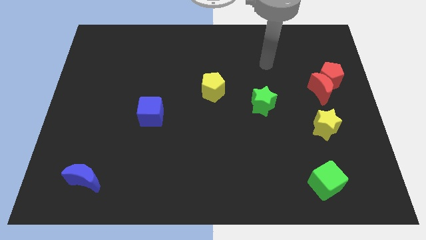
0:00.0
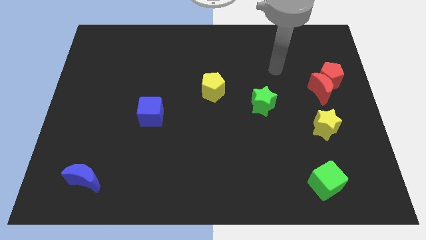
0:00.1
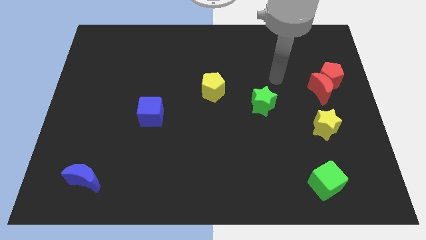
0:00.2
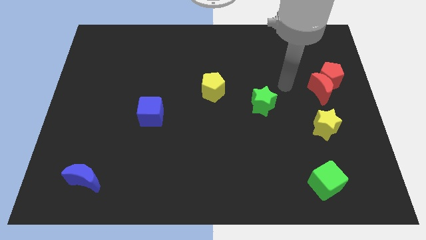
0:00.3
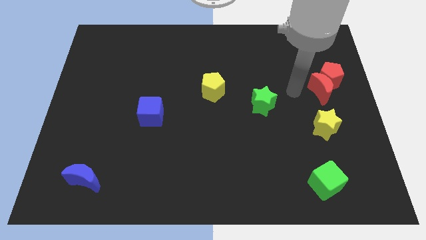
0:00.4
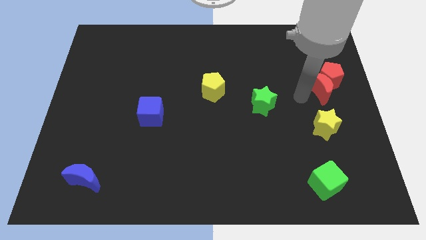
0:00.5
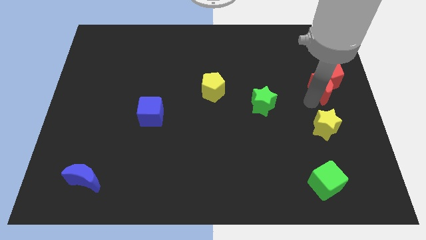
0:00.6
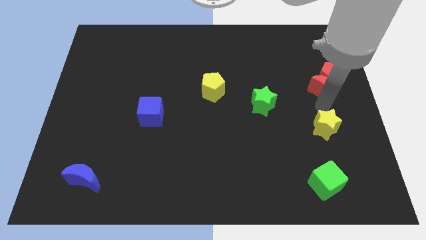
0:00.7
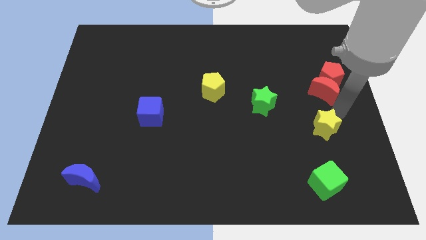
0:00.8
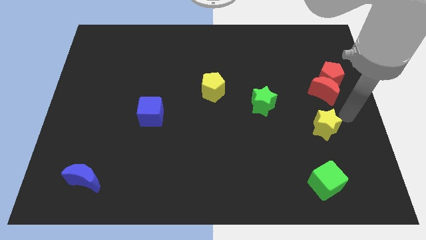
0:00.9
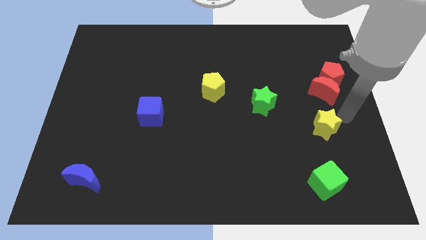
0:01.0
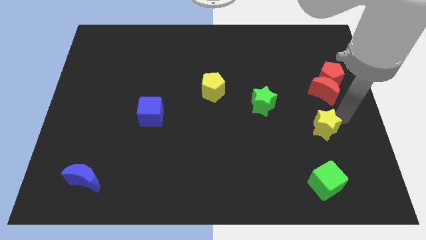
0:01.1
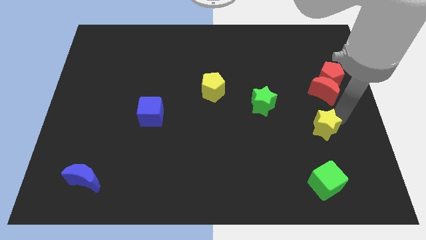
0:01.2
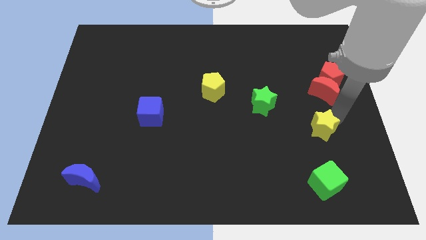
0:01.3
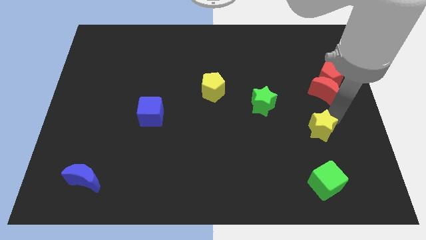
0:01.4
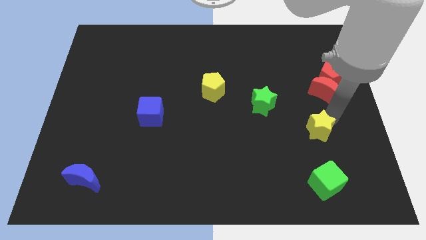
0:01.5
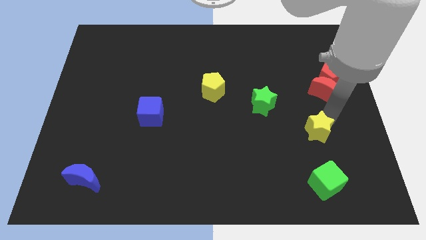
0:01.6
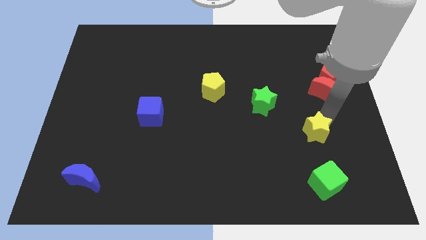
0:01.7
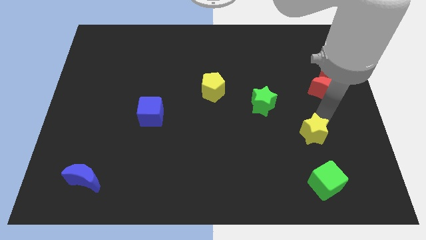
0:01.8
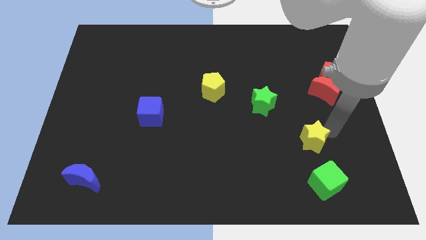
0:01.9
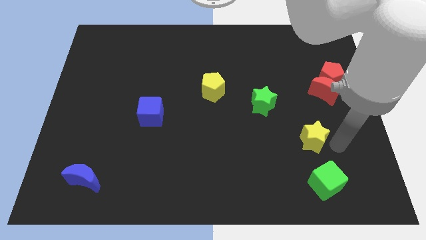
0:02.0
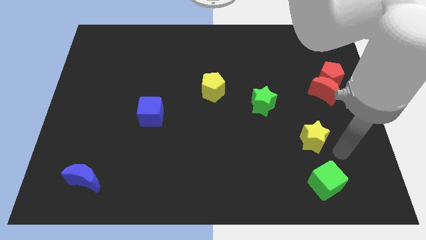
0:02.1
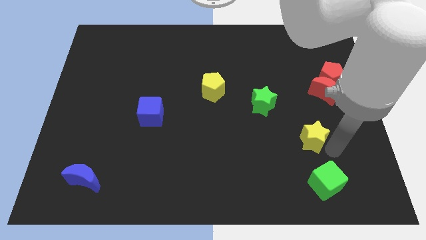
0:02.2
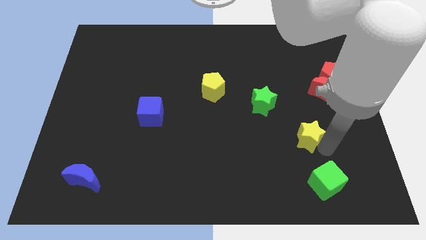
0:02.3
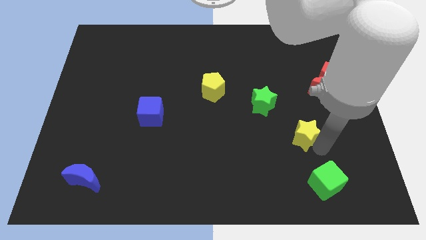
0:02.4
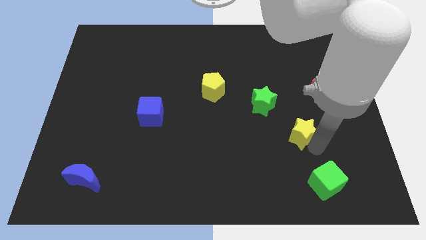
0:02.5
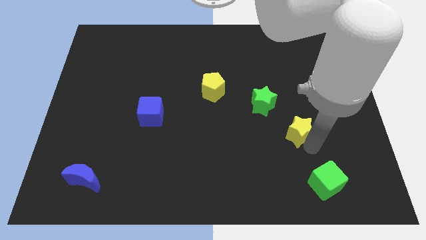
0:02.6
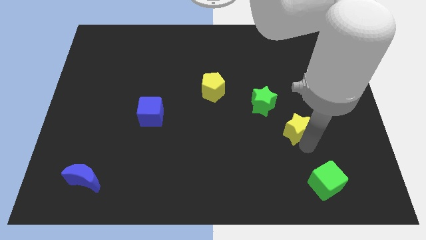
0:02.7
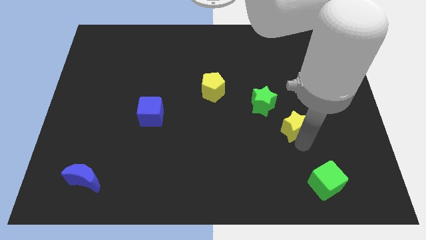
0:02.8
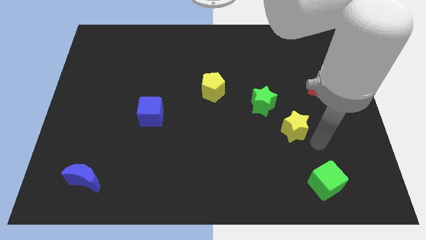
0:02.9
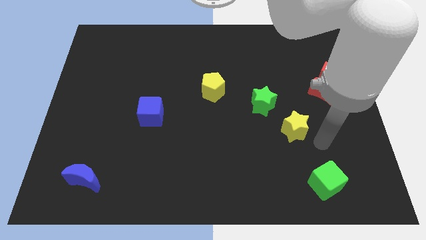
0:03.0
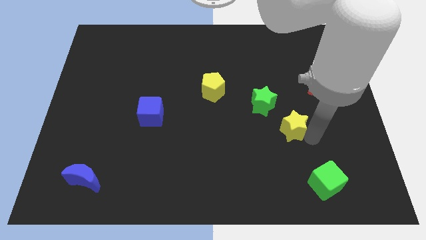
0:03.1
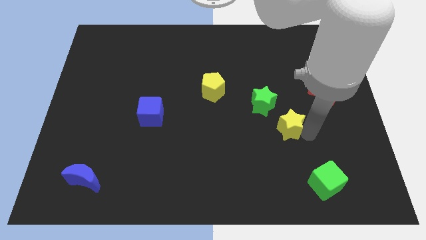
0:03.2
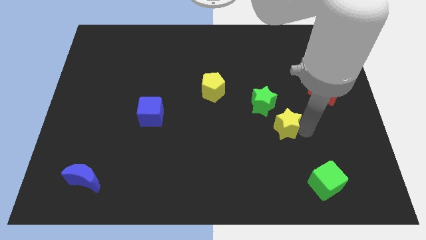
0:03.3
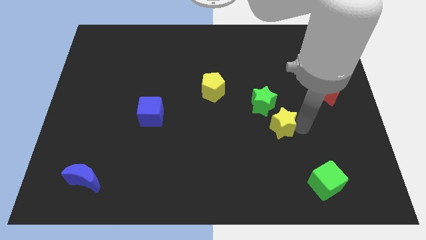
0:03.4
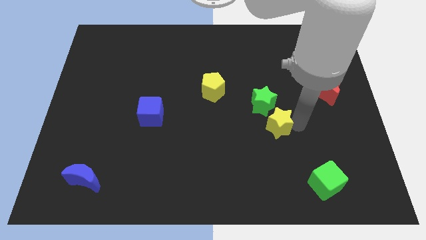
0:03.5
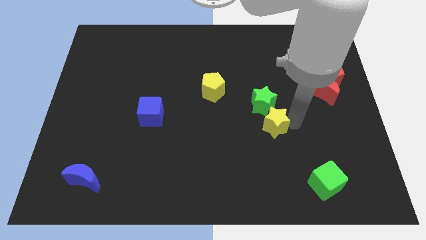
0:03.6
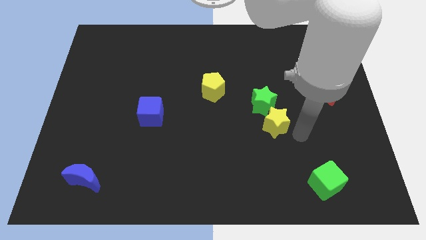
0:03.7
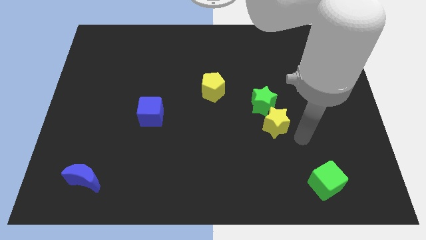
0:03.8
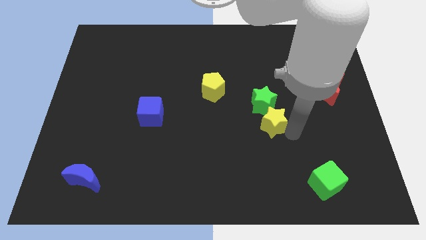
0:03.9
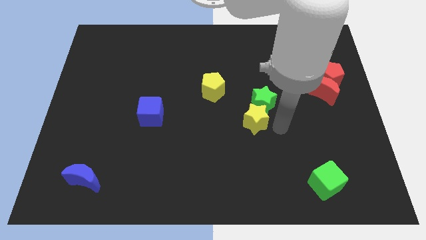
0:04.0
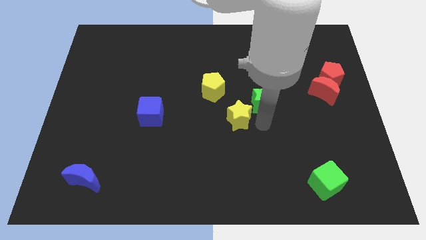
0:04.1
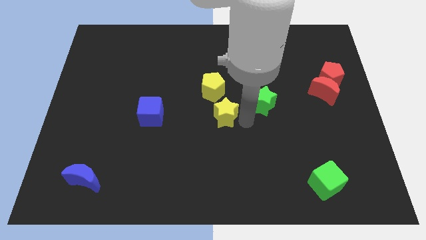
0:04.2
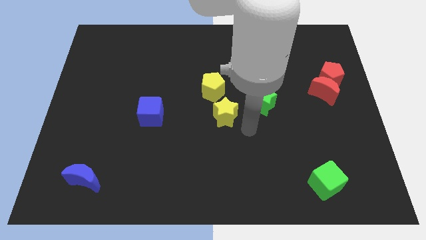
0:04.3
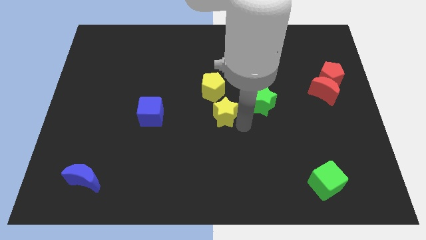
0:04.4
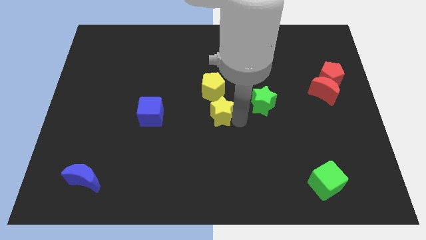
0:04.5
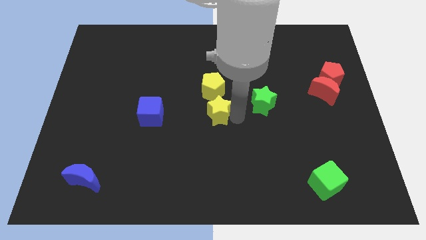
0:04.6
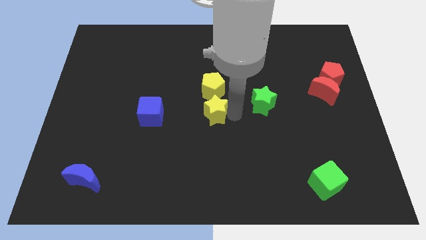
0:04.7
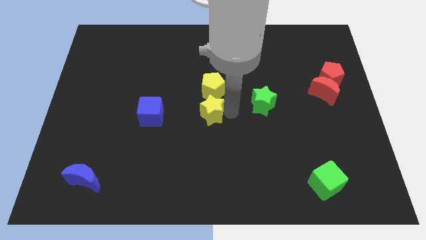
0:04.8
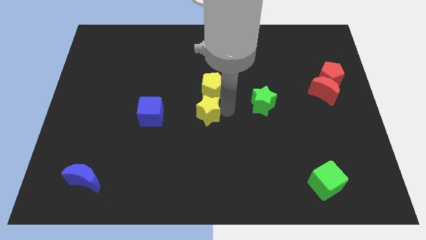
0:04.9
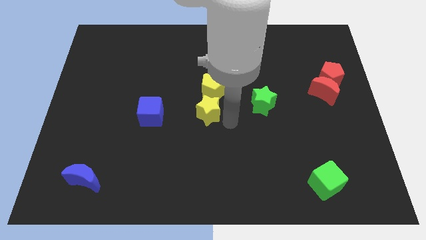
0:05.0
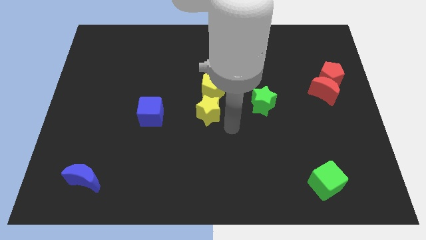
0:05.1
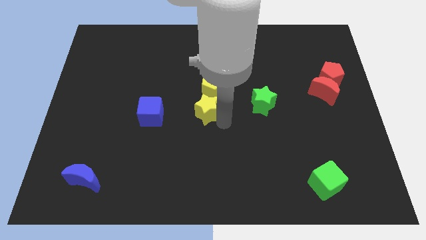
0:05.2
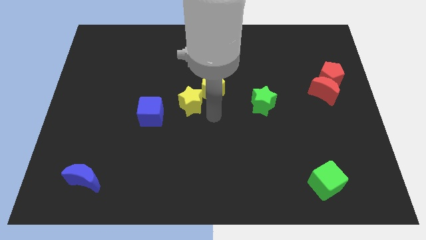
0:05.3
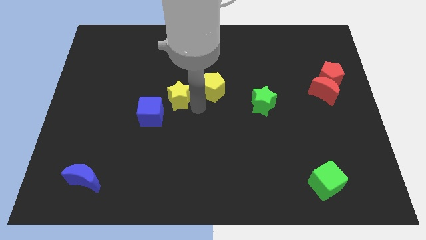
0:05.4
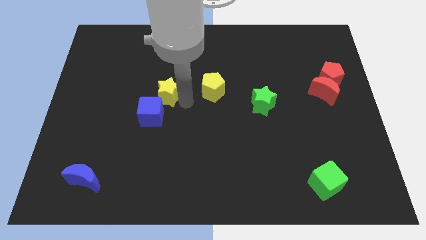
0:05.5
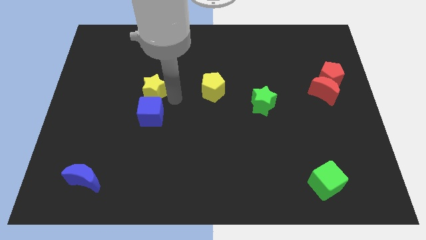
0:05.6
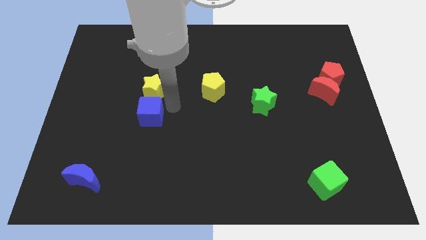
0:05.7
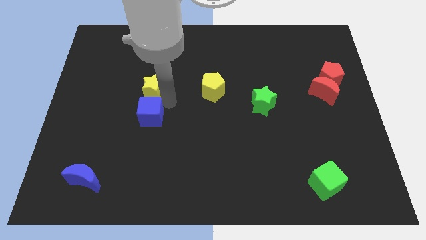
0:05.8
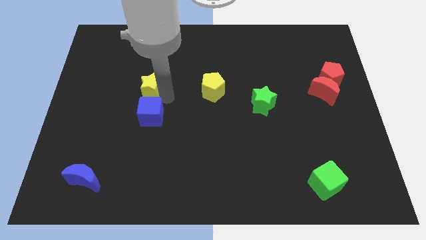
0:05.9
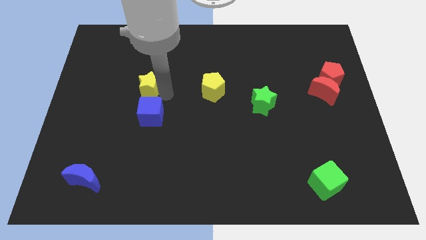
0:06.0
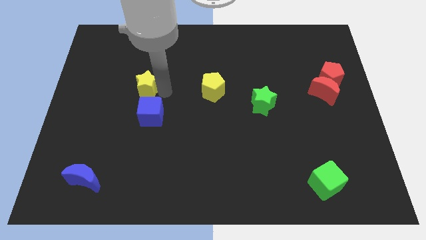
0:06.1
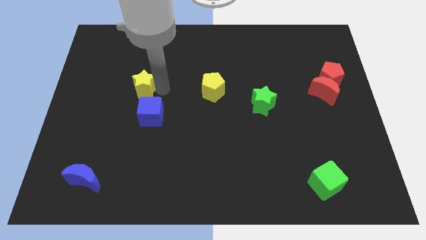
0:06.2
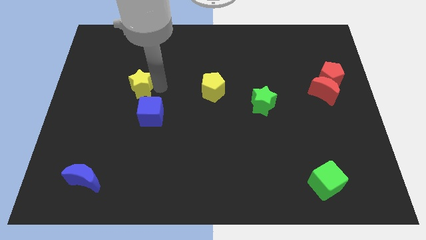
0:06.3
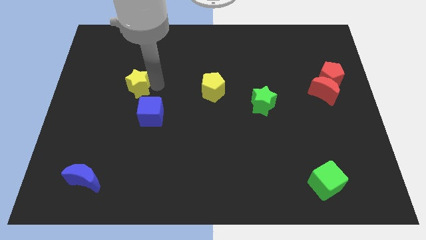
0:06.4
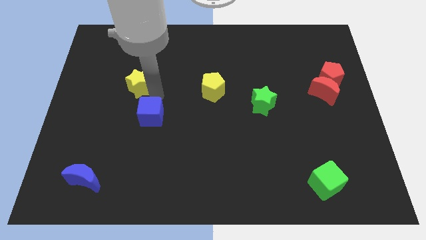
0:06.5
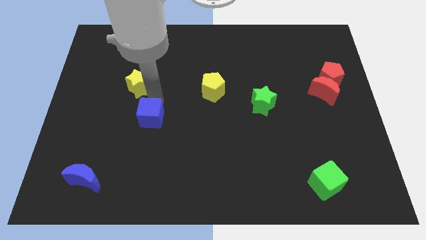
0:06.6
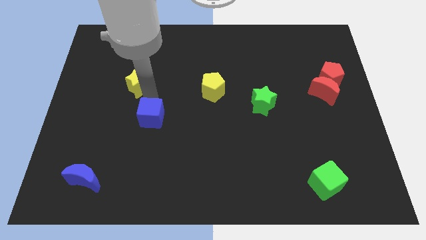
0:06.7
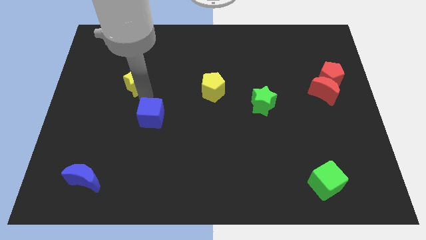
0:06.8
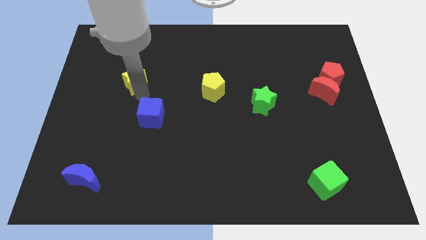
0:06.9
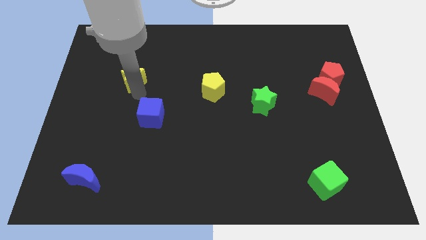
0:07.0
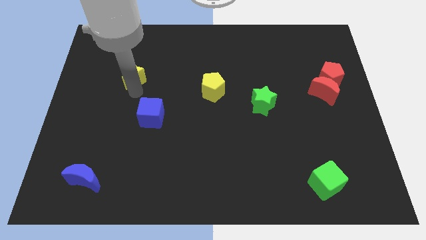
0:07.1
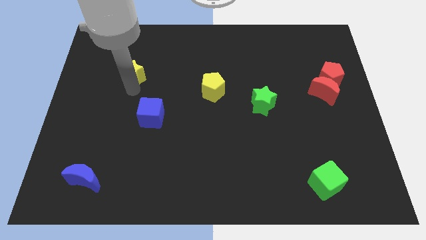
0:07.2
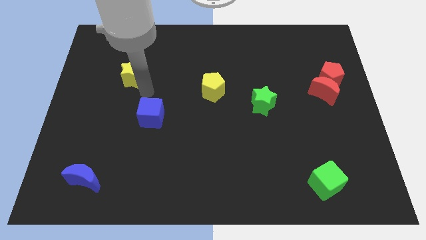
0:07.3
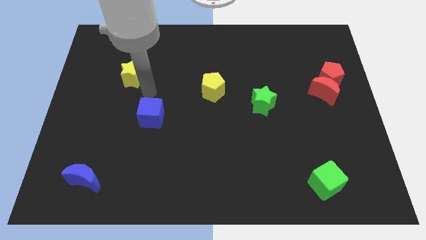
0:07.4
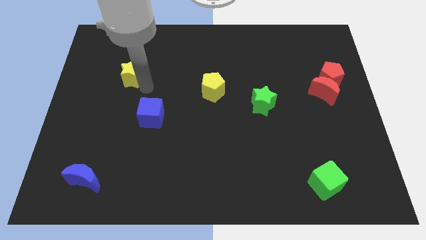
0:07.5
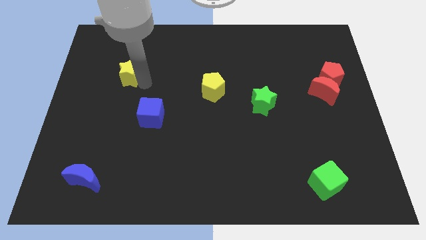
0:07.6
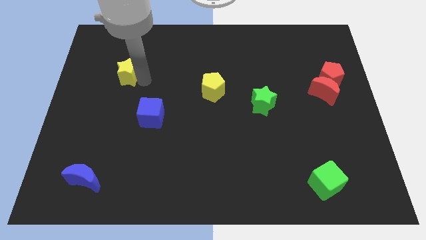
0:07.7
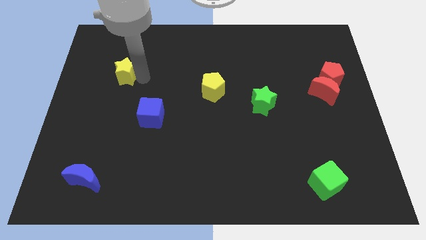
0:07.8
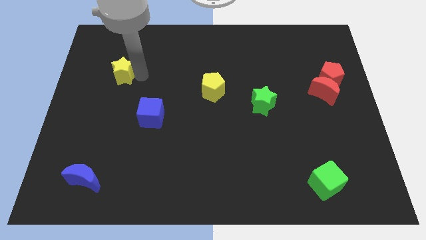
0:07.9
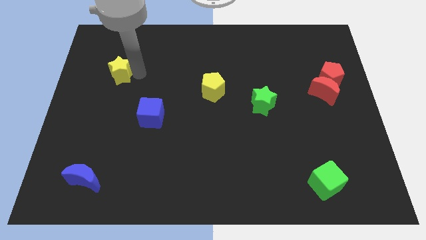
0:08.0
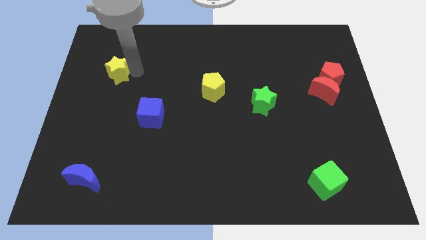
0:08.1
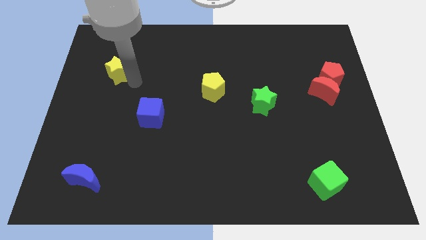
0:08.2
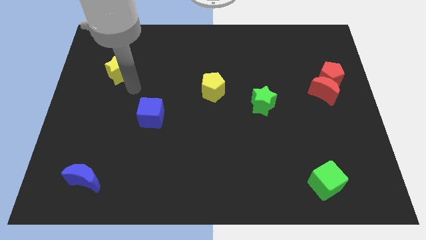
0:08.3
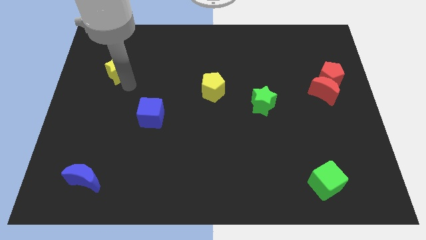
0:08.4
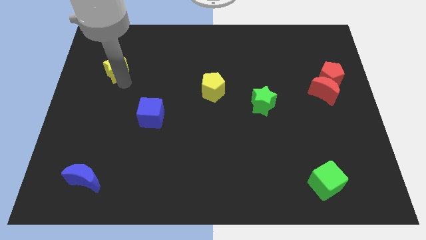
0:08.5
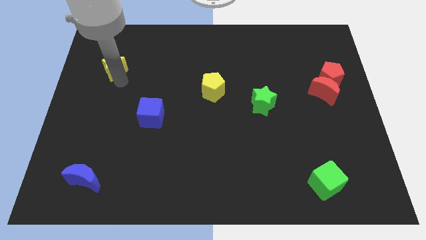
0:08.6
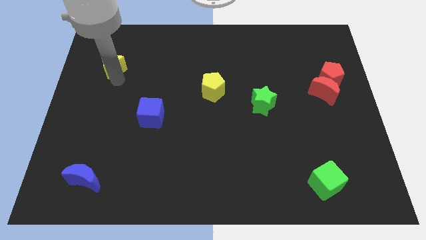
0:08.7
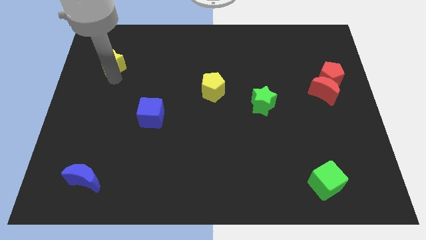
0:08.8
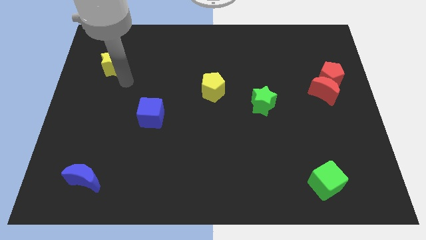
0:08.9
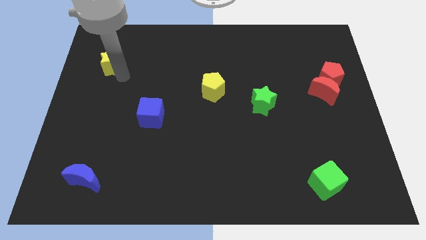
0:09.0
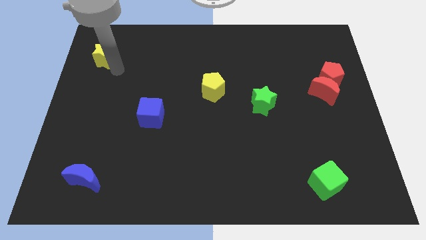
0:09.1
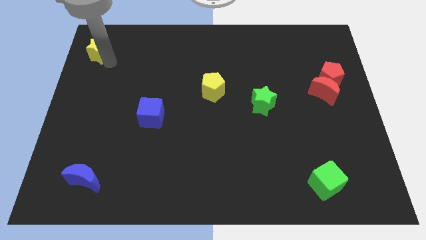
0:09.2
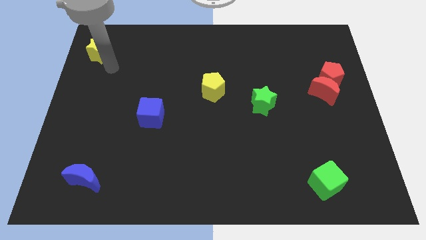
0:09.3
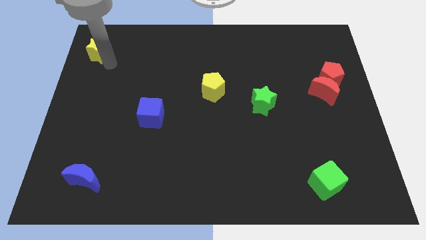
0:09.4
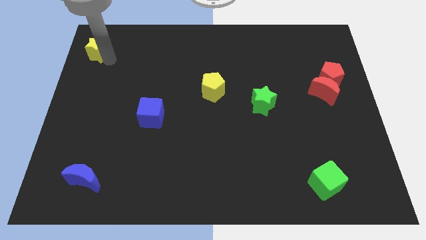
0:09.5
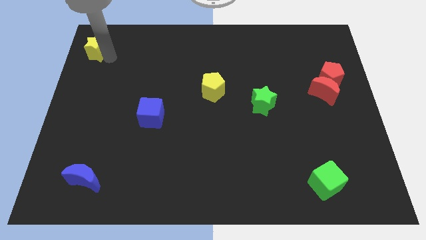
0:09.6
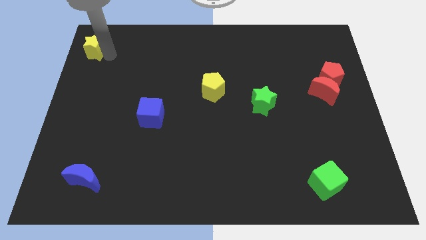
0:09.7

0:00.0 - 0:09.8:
push the yellow star to the top left of the board
